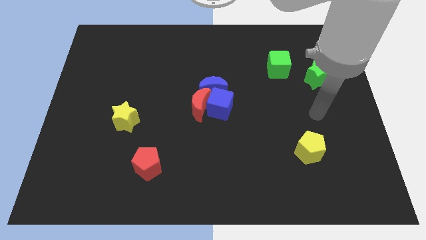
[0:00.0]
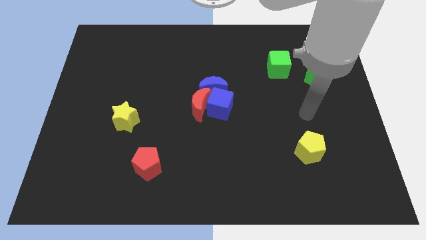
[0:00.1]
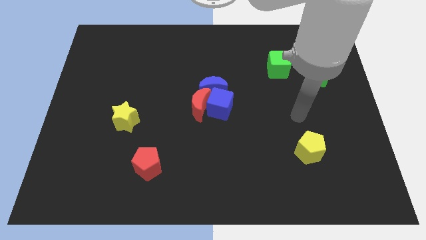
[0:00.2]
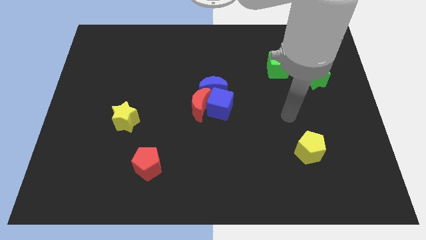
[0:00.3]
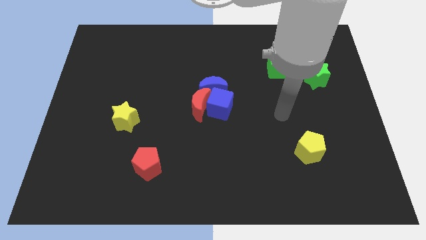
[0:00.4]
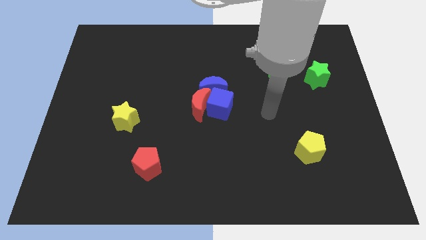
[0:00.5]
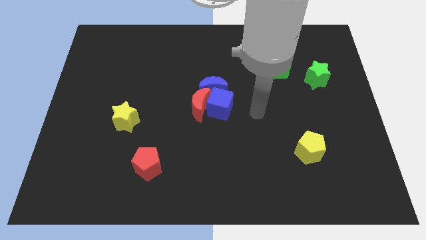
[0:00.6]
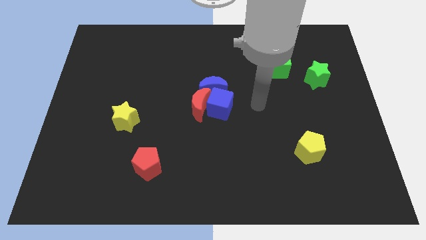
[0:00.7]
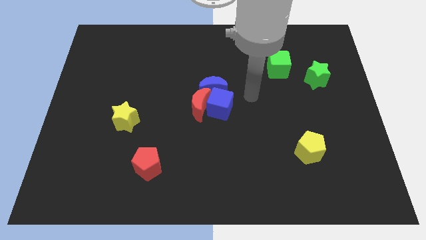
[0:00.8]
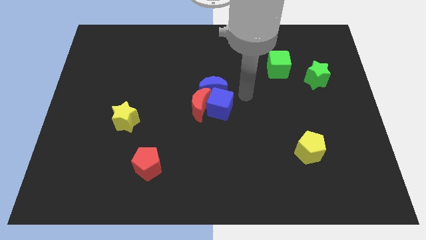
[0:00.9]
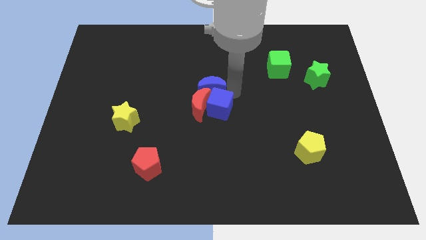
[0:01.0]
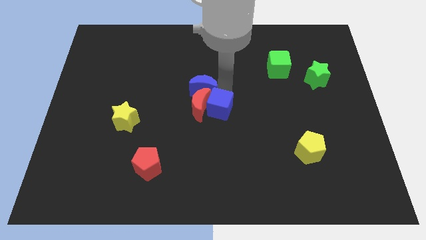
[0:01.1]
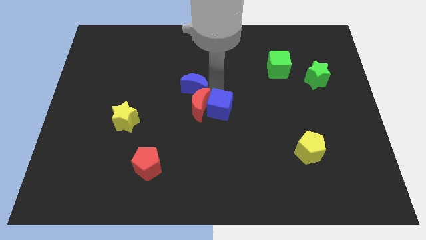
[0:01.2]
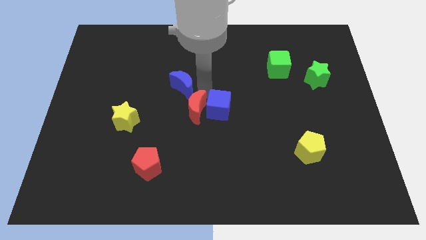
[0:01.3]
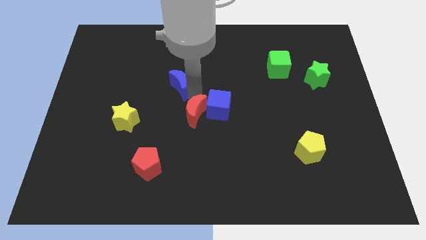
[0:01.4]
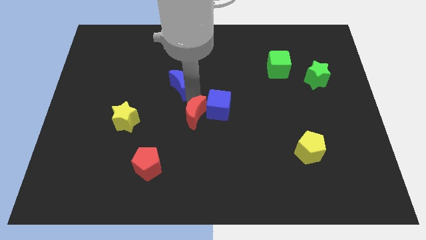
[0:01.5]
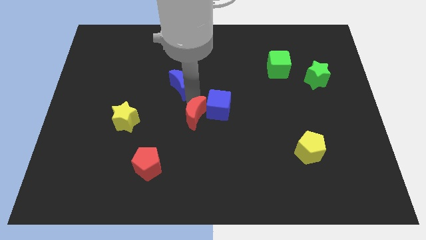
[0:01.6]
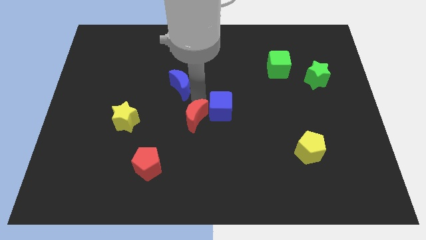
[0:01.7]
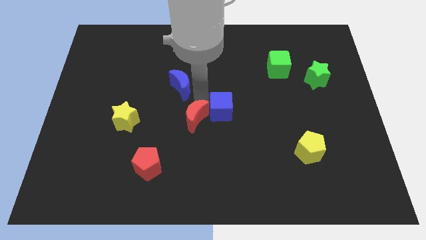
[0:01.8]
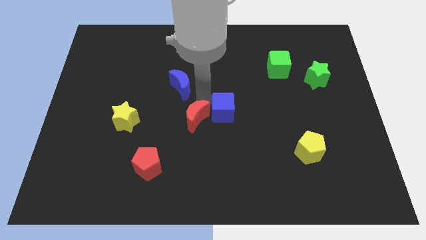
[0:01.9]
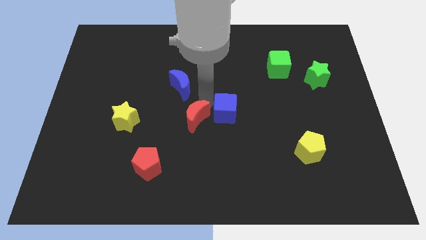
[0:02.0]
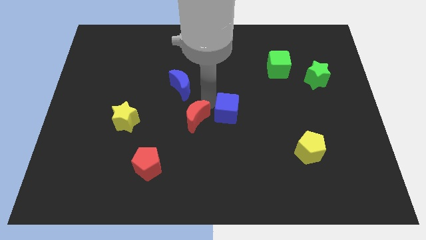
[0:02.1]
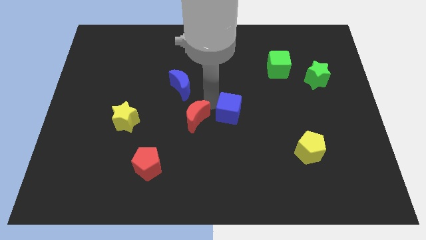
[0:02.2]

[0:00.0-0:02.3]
move the blue cube away from the red moon and blue moon

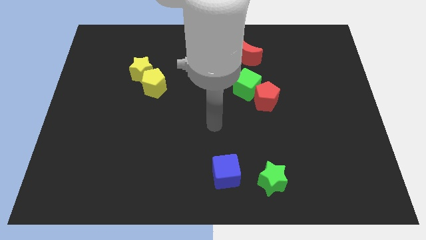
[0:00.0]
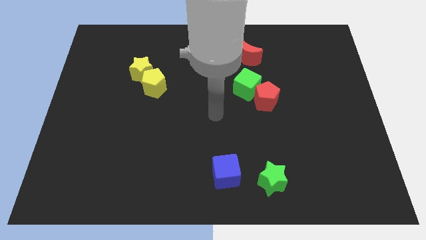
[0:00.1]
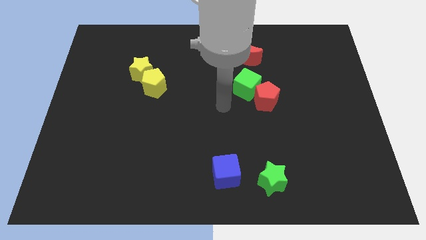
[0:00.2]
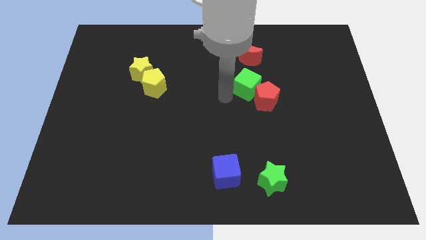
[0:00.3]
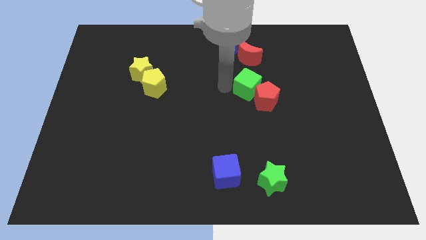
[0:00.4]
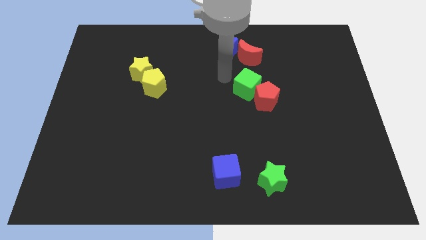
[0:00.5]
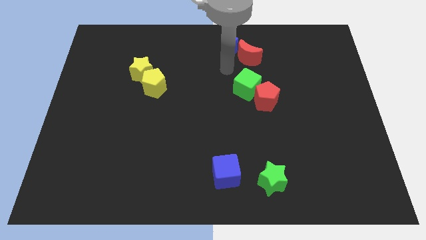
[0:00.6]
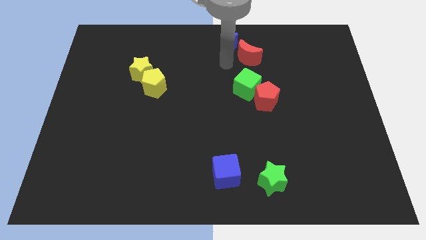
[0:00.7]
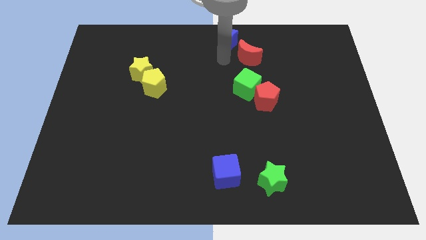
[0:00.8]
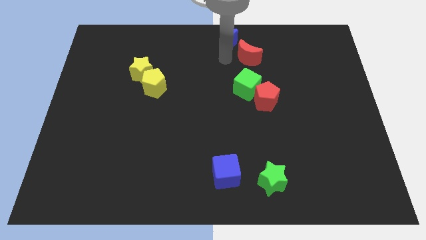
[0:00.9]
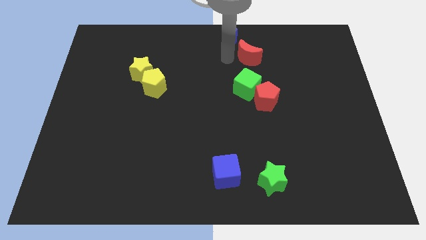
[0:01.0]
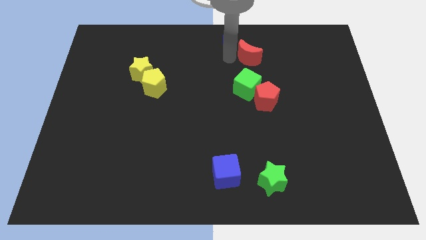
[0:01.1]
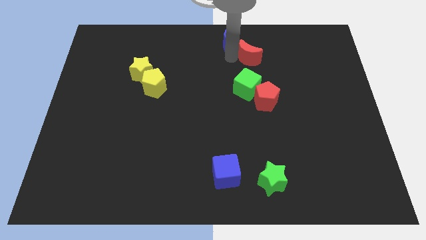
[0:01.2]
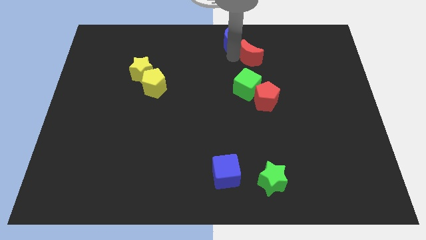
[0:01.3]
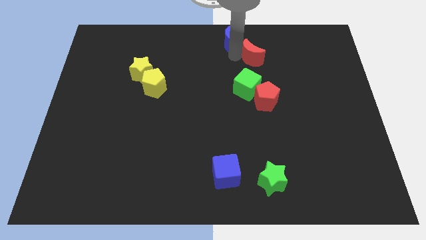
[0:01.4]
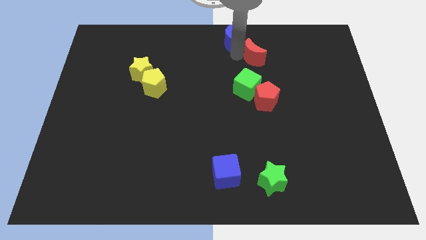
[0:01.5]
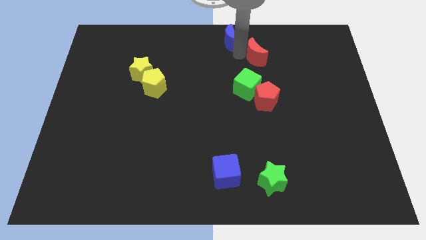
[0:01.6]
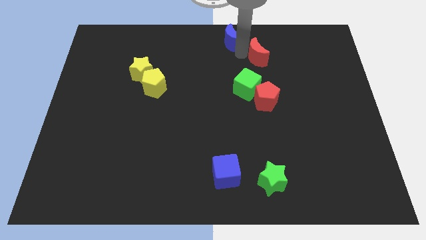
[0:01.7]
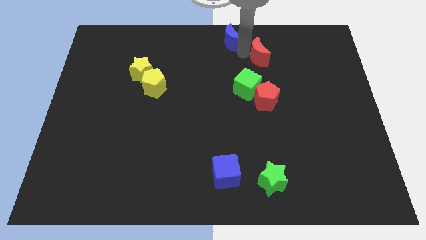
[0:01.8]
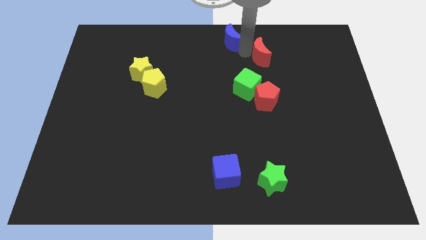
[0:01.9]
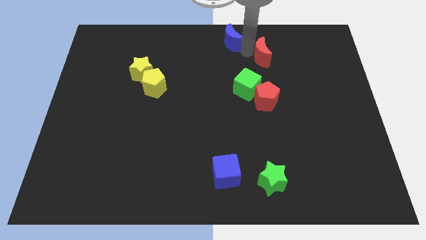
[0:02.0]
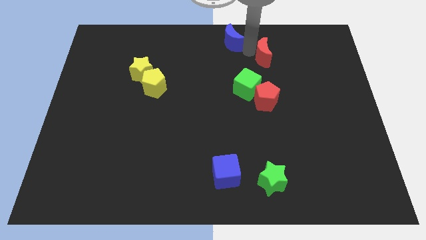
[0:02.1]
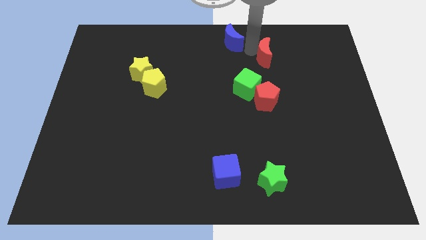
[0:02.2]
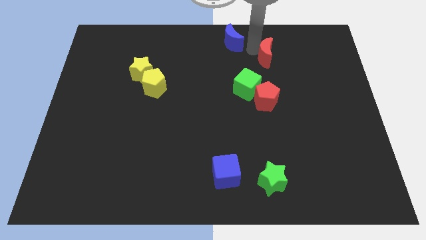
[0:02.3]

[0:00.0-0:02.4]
pull the red moon apart from the blue moon

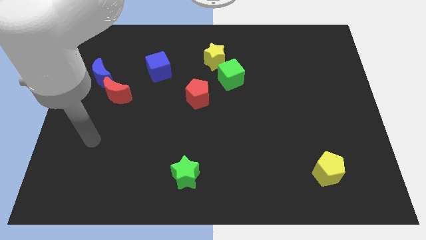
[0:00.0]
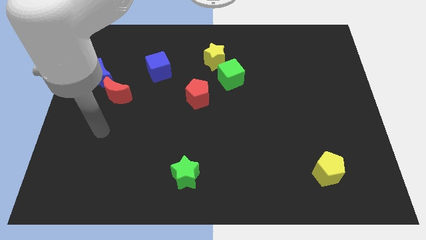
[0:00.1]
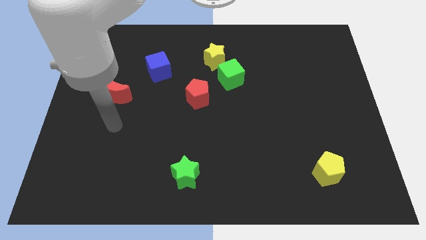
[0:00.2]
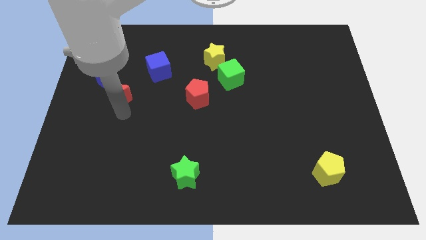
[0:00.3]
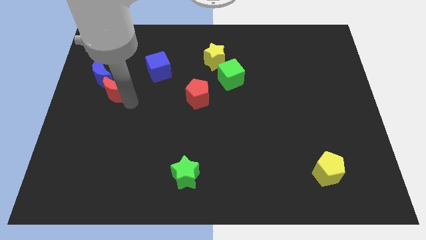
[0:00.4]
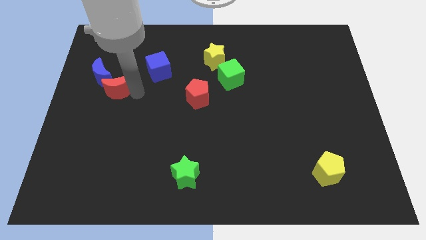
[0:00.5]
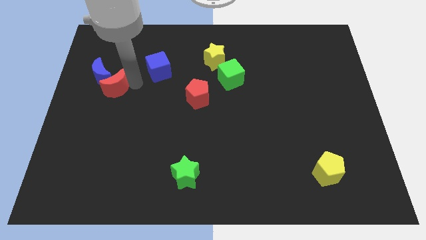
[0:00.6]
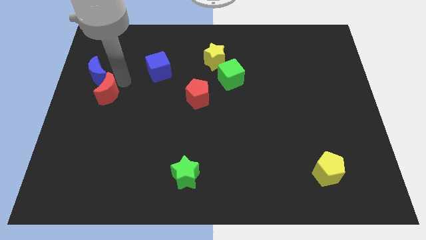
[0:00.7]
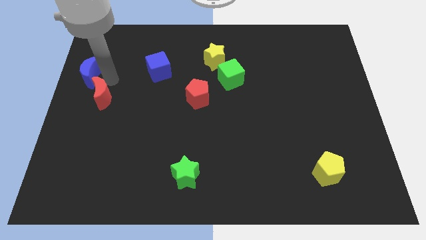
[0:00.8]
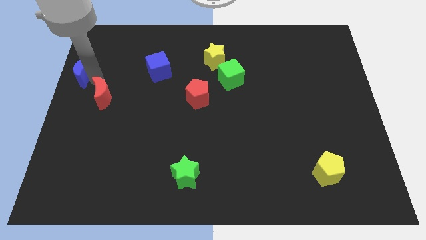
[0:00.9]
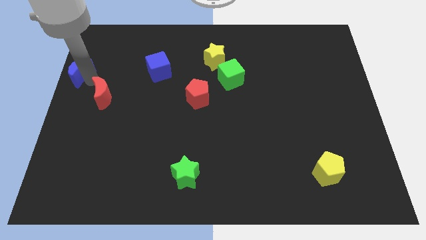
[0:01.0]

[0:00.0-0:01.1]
move the red moon away from the blue moon

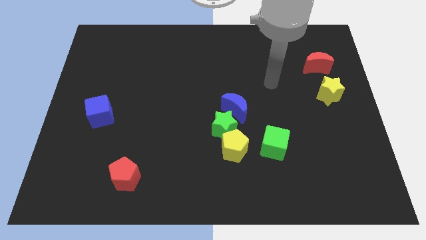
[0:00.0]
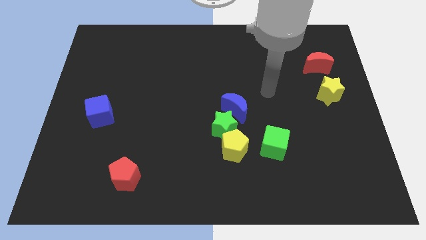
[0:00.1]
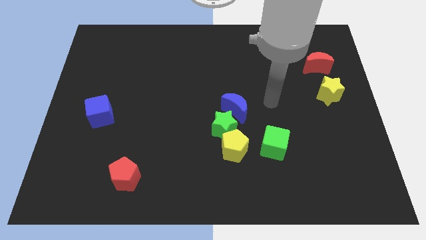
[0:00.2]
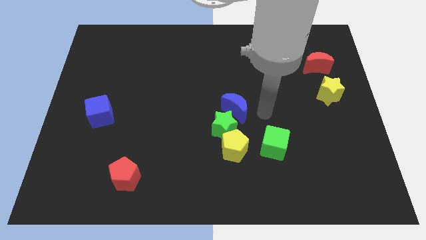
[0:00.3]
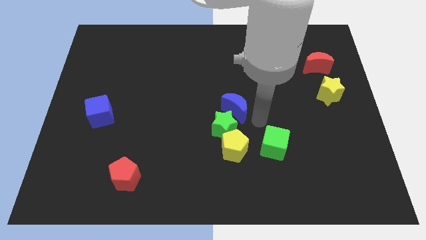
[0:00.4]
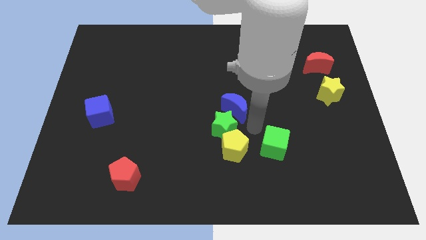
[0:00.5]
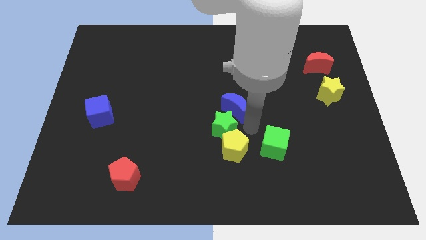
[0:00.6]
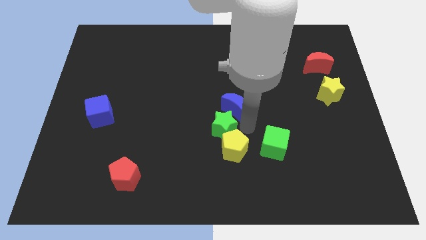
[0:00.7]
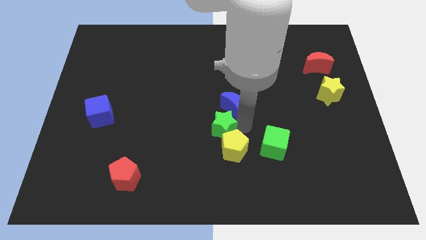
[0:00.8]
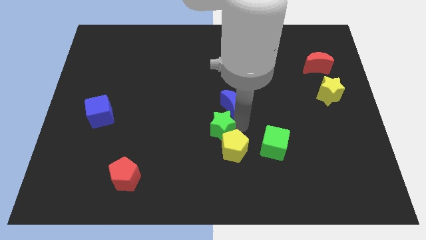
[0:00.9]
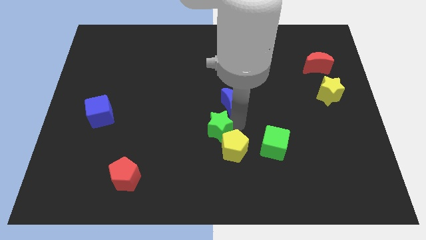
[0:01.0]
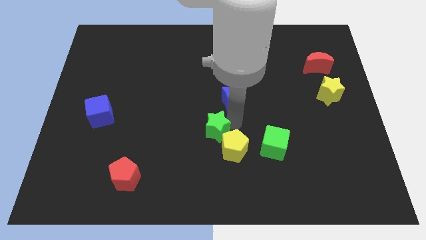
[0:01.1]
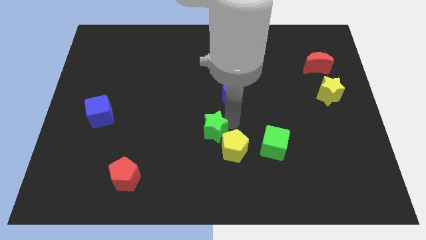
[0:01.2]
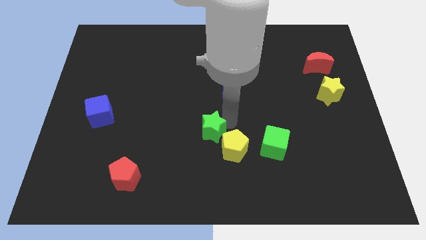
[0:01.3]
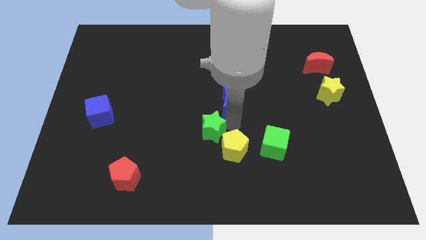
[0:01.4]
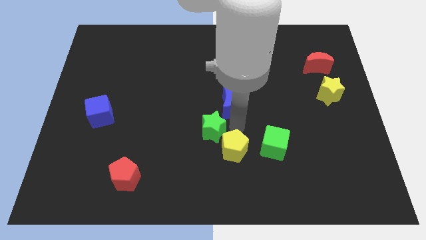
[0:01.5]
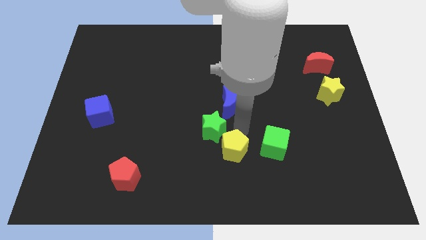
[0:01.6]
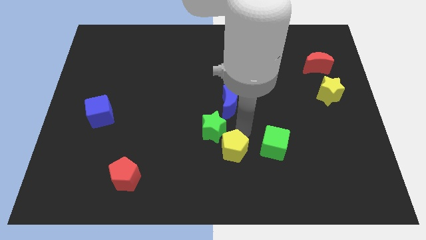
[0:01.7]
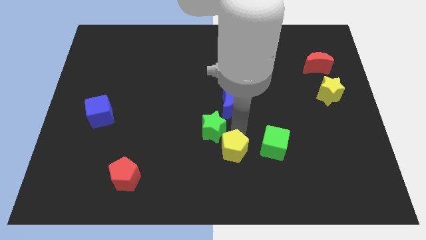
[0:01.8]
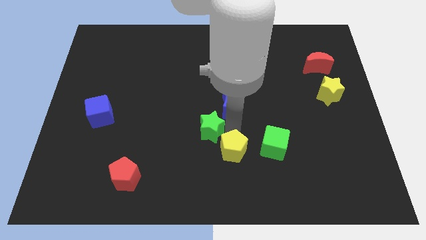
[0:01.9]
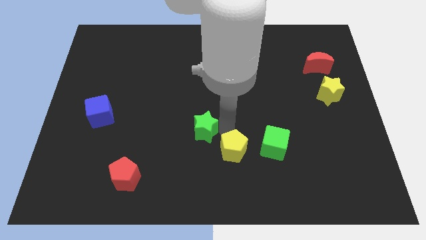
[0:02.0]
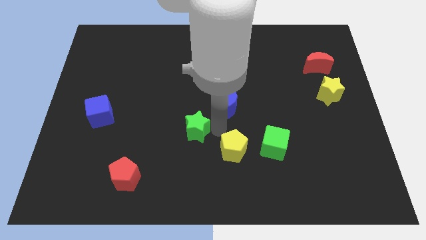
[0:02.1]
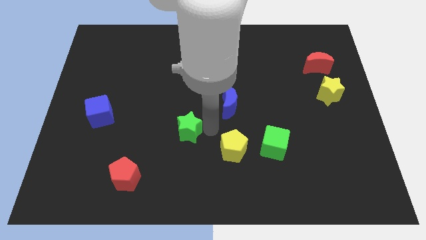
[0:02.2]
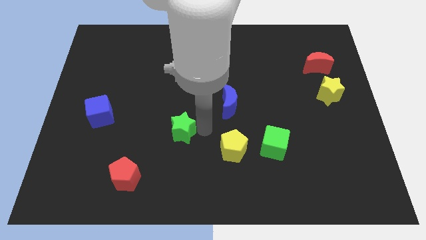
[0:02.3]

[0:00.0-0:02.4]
move the green star away from the yellow pentagon and blue moon

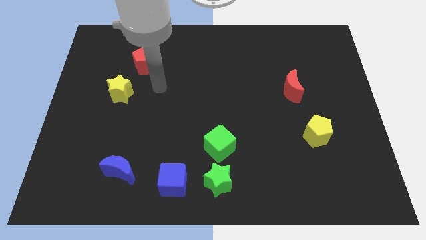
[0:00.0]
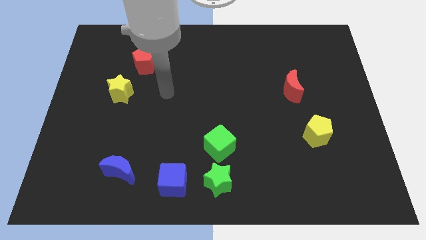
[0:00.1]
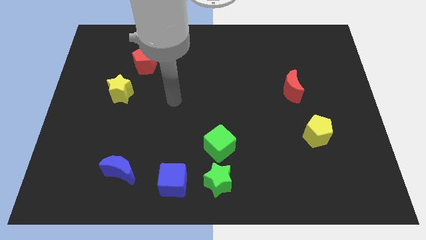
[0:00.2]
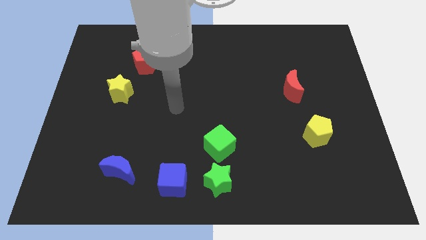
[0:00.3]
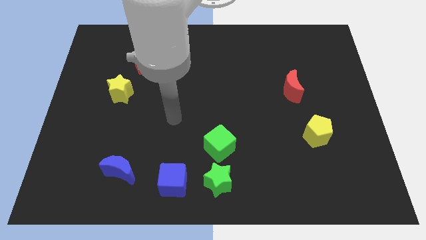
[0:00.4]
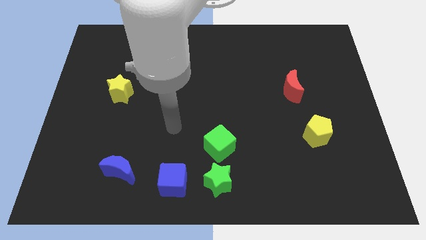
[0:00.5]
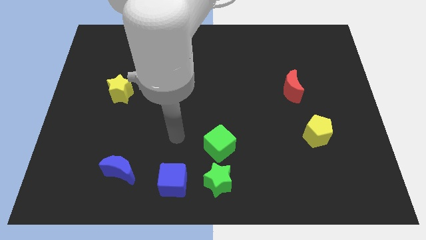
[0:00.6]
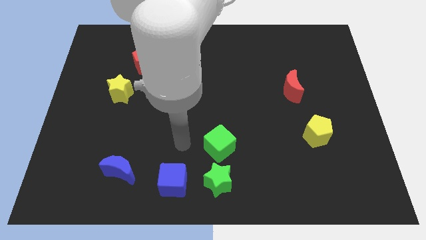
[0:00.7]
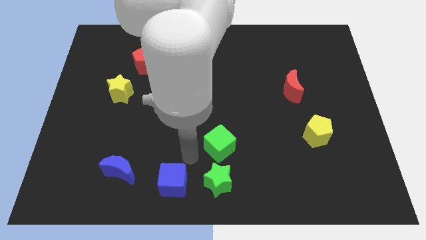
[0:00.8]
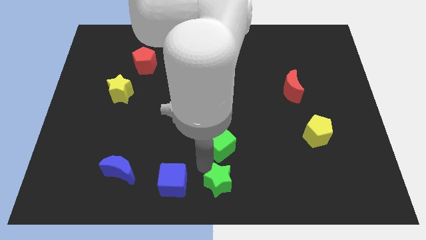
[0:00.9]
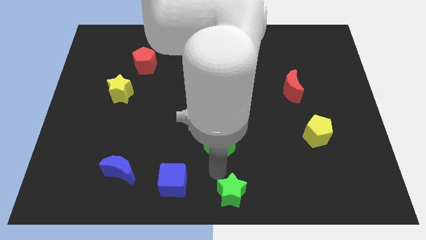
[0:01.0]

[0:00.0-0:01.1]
move the green cube away from the green star

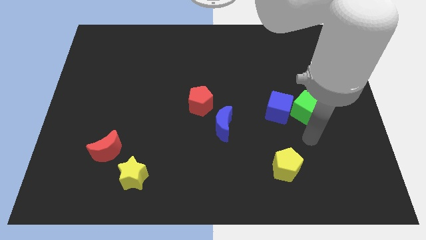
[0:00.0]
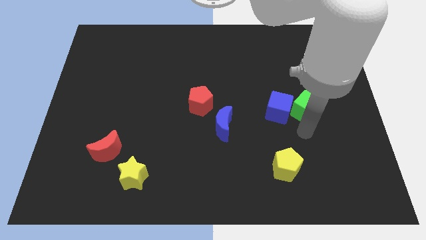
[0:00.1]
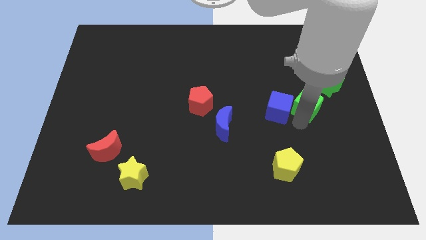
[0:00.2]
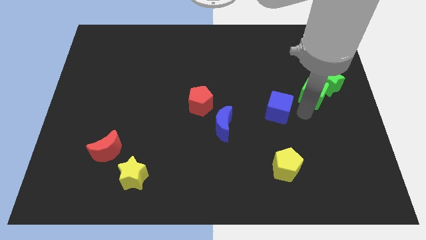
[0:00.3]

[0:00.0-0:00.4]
move the blue cube away from the green cube
